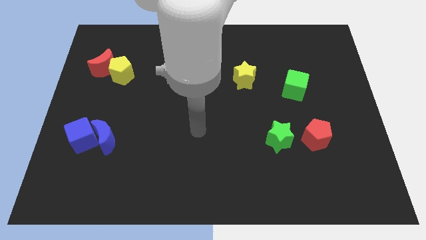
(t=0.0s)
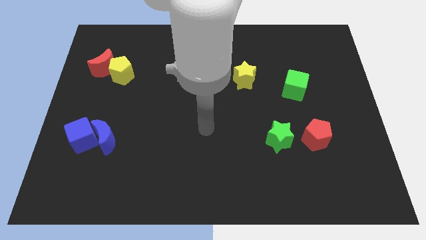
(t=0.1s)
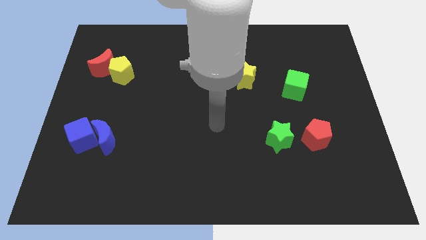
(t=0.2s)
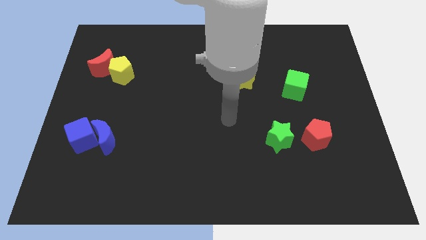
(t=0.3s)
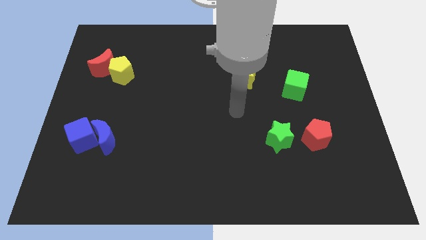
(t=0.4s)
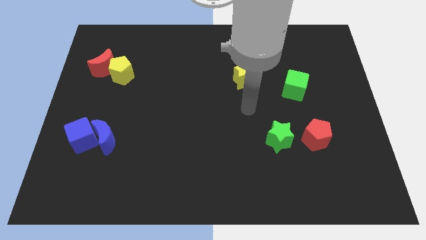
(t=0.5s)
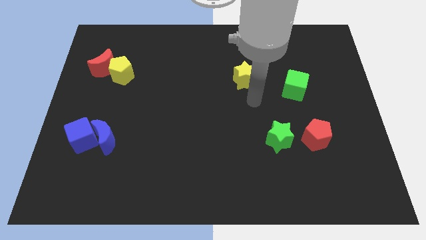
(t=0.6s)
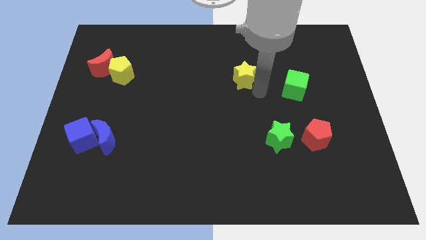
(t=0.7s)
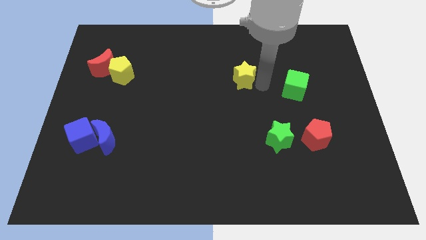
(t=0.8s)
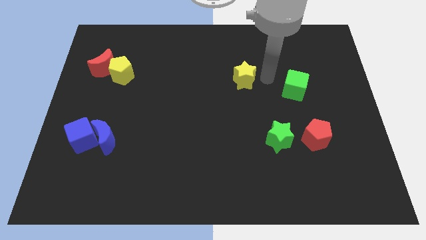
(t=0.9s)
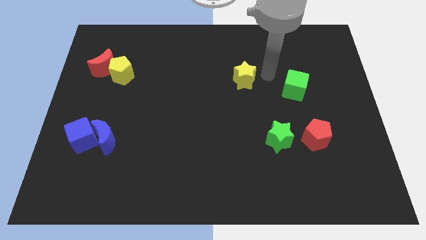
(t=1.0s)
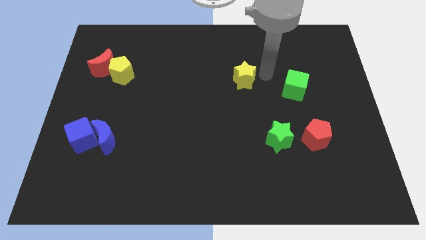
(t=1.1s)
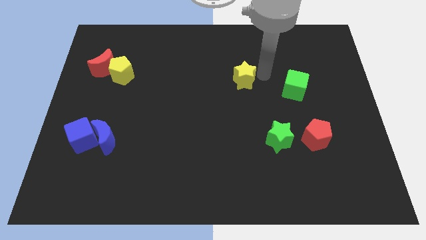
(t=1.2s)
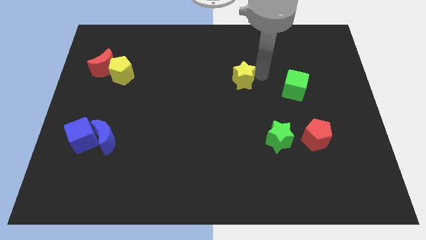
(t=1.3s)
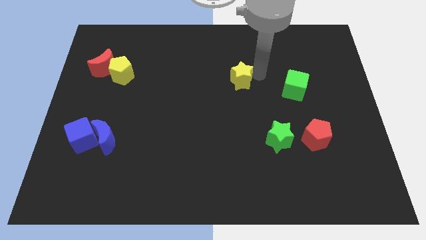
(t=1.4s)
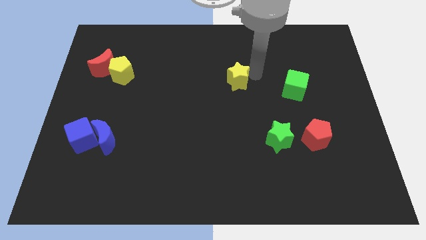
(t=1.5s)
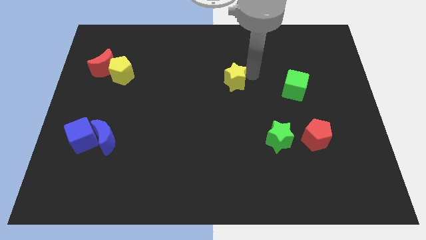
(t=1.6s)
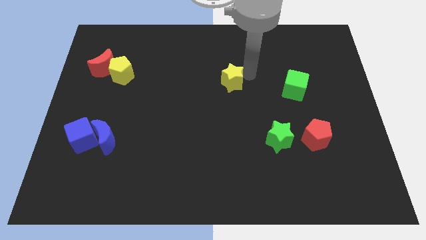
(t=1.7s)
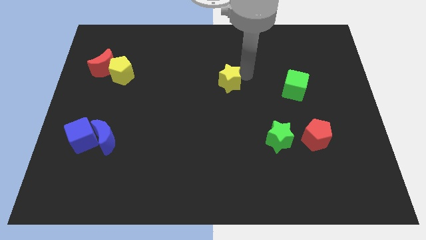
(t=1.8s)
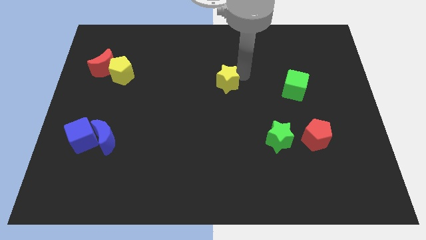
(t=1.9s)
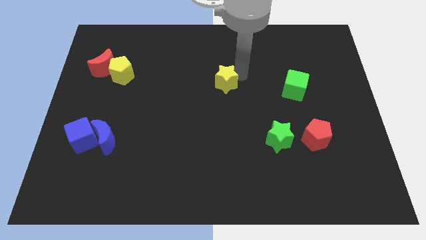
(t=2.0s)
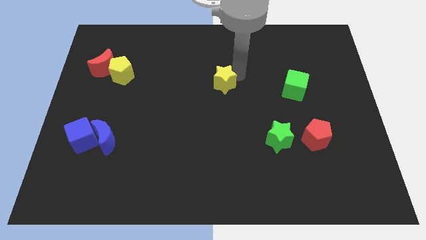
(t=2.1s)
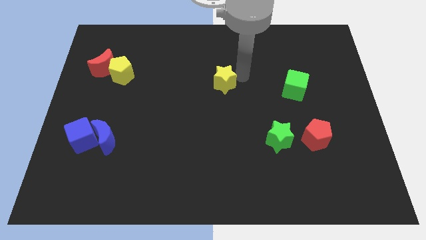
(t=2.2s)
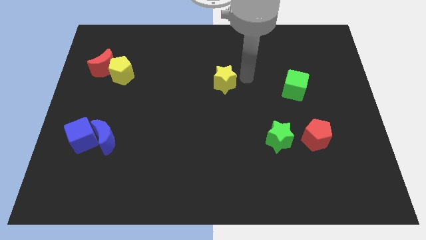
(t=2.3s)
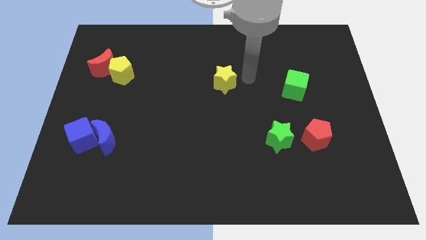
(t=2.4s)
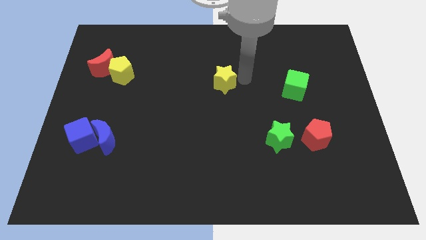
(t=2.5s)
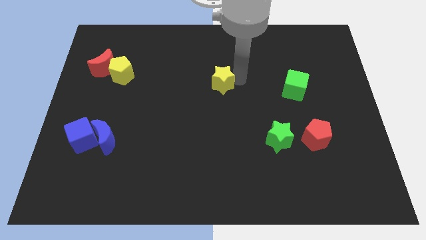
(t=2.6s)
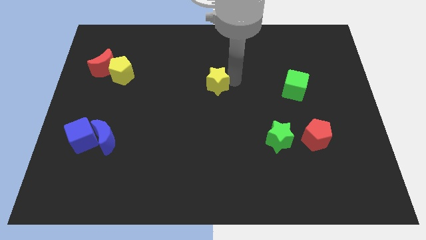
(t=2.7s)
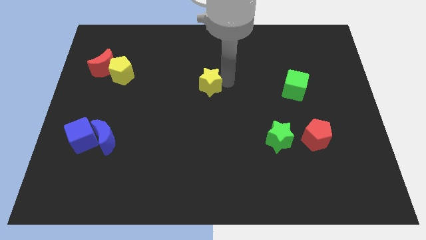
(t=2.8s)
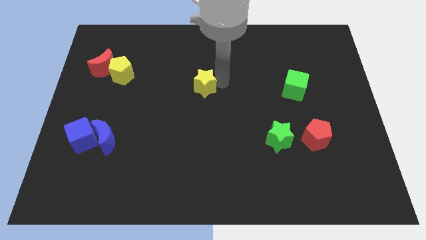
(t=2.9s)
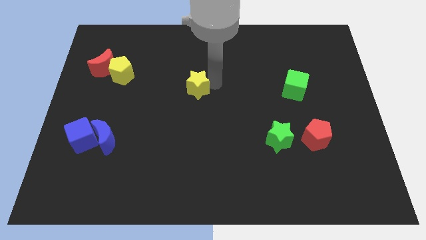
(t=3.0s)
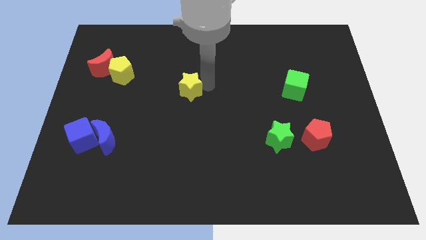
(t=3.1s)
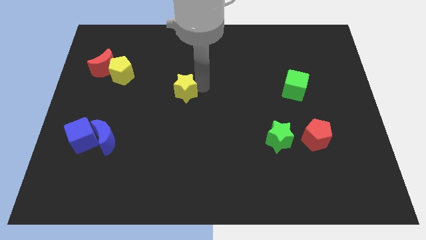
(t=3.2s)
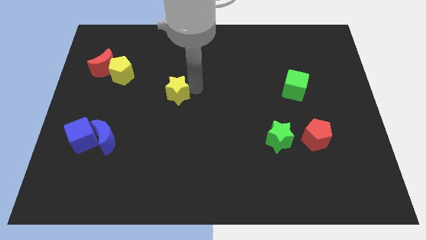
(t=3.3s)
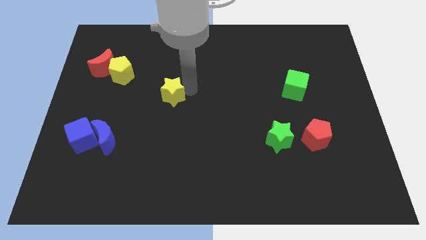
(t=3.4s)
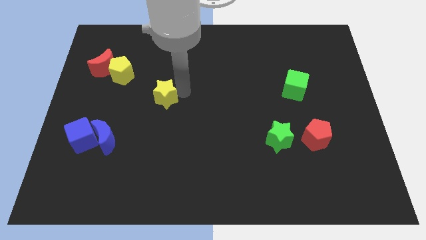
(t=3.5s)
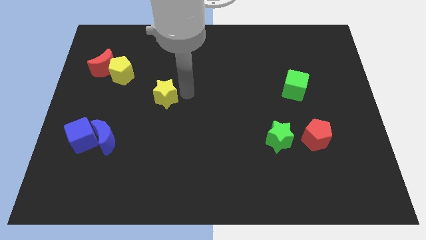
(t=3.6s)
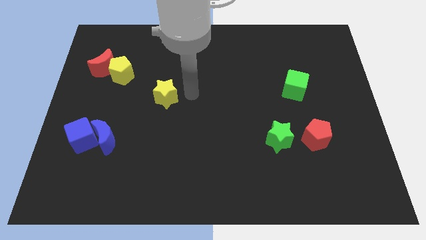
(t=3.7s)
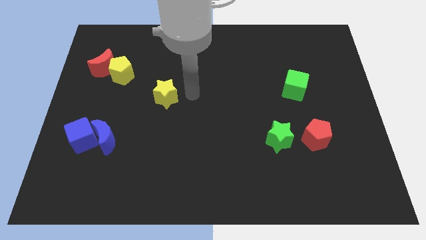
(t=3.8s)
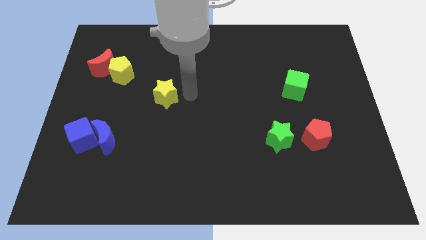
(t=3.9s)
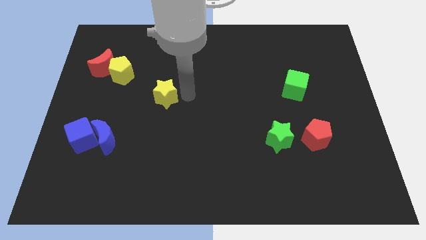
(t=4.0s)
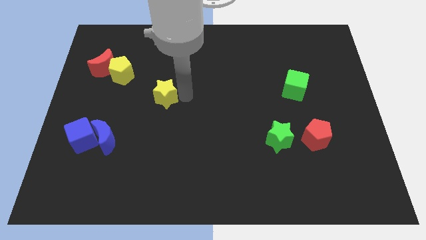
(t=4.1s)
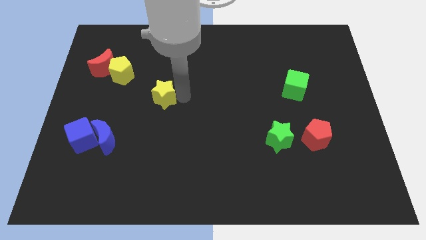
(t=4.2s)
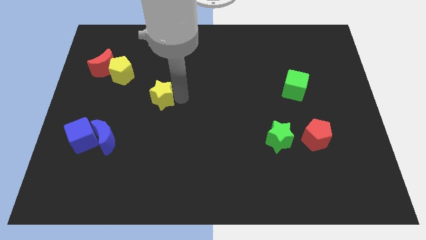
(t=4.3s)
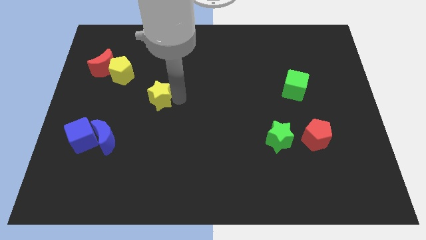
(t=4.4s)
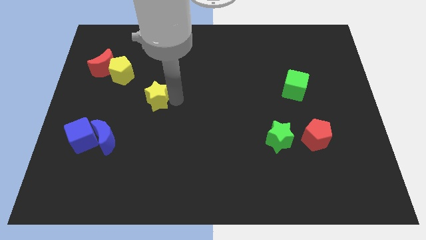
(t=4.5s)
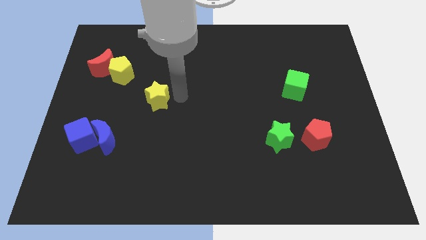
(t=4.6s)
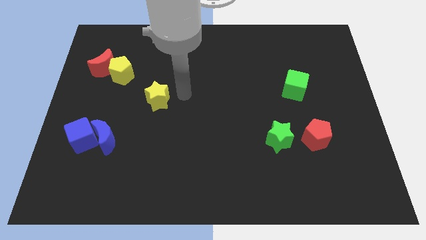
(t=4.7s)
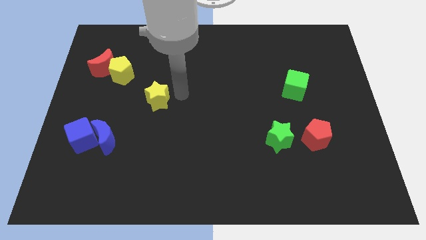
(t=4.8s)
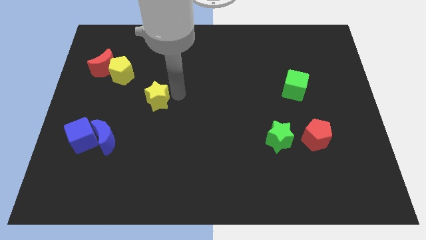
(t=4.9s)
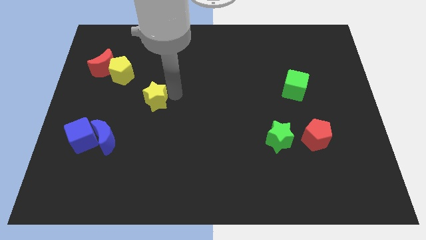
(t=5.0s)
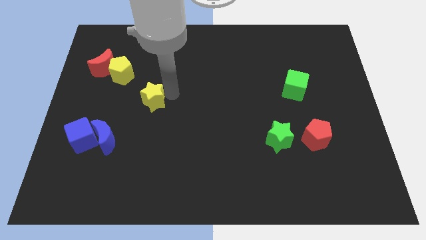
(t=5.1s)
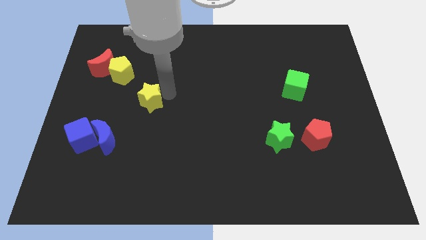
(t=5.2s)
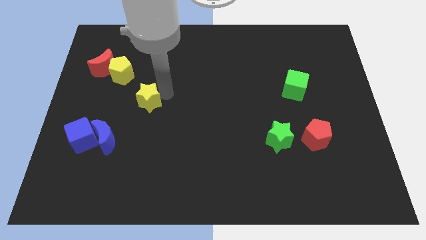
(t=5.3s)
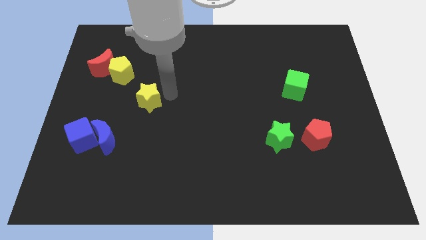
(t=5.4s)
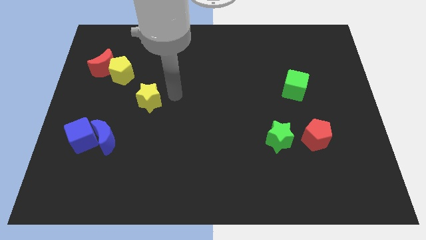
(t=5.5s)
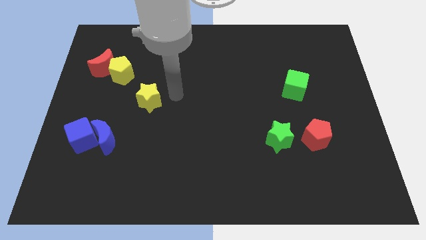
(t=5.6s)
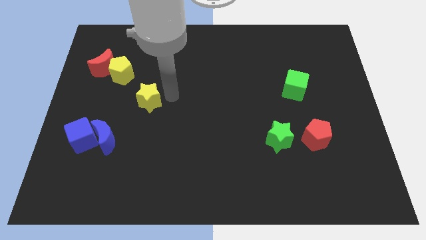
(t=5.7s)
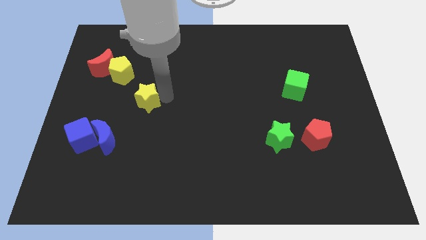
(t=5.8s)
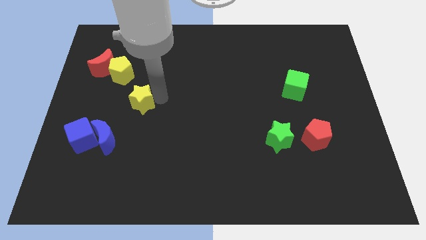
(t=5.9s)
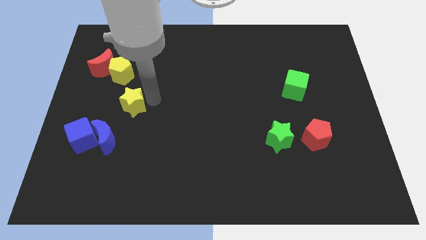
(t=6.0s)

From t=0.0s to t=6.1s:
slide the yellow star to the bottom side of the yellow pentagon

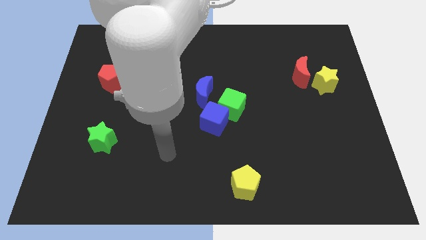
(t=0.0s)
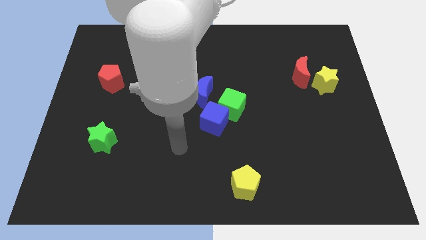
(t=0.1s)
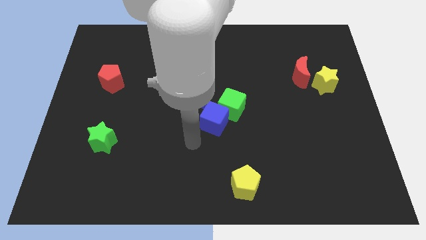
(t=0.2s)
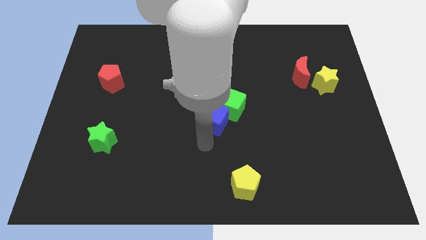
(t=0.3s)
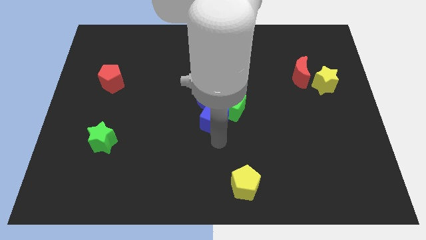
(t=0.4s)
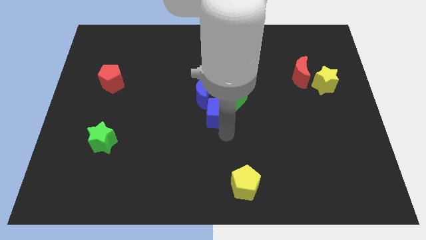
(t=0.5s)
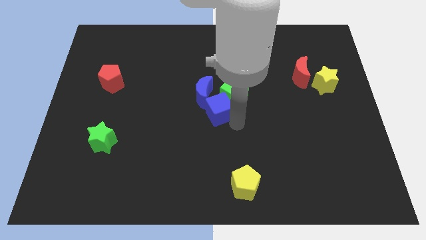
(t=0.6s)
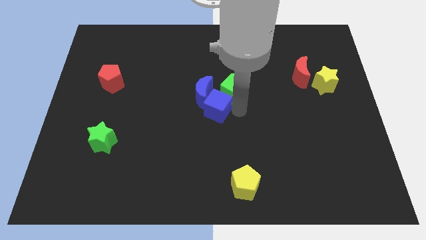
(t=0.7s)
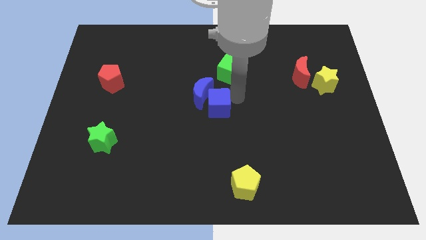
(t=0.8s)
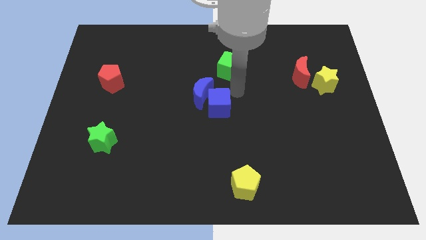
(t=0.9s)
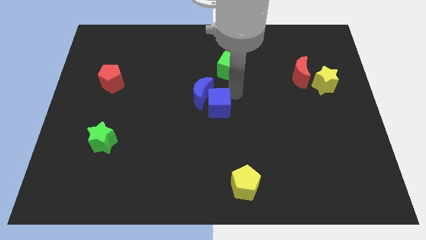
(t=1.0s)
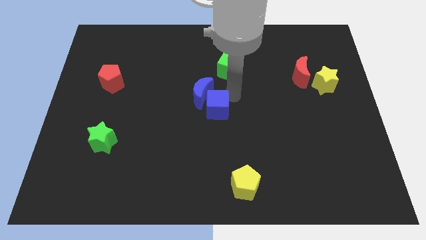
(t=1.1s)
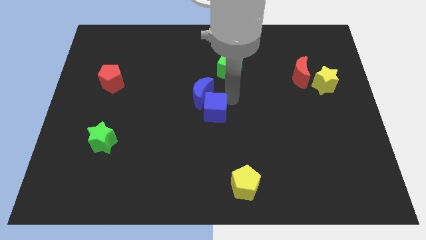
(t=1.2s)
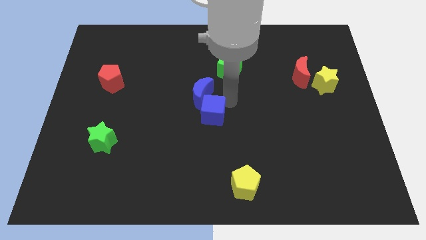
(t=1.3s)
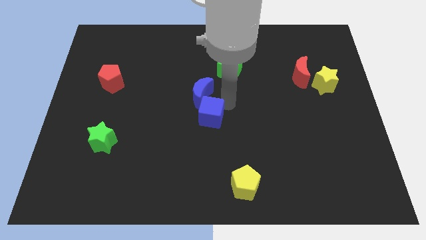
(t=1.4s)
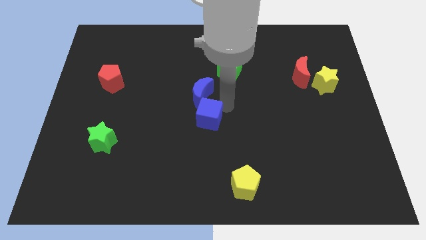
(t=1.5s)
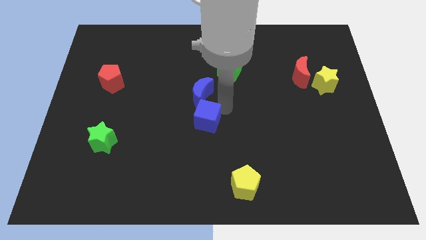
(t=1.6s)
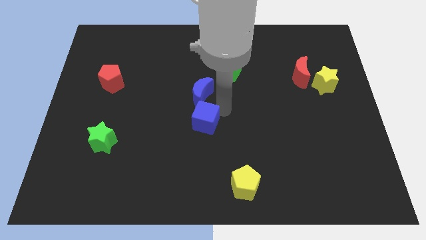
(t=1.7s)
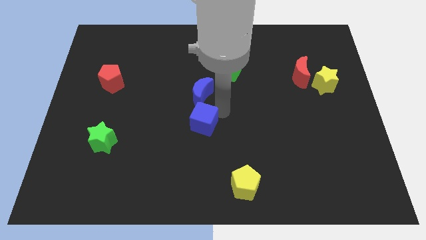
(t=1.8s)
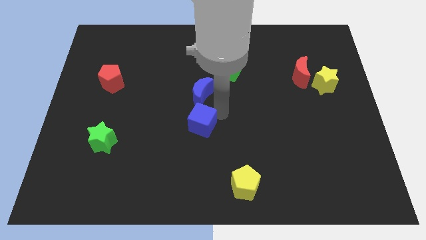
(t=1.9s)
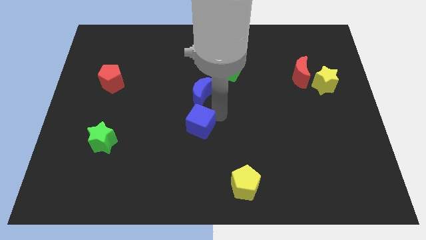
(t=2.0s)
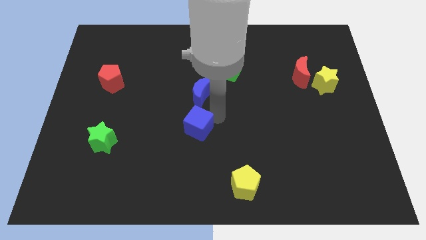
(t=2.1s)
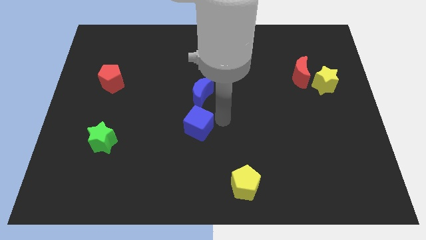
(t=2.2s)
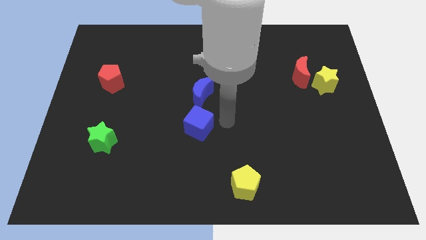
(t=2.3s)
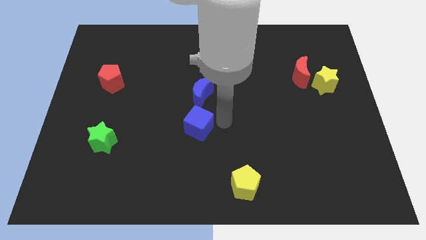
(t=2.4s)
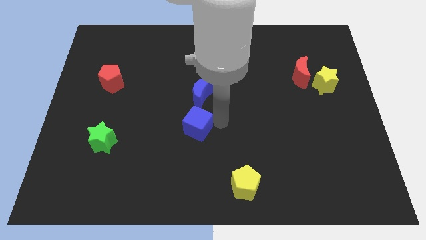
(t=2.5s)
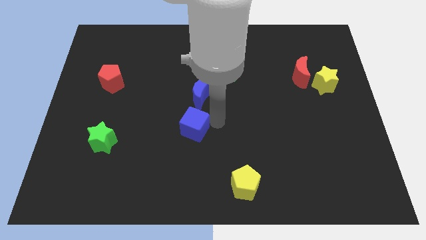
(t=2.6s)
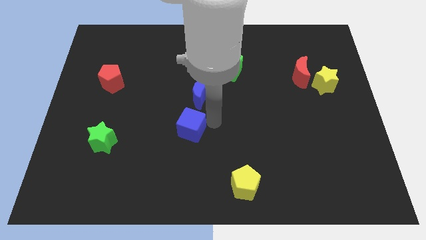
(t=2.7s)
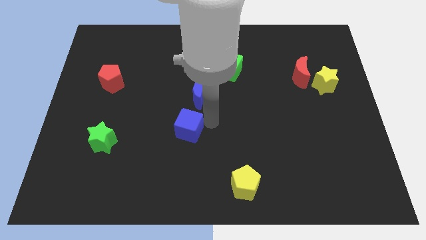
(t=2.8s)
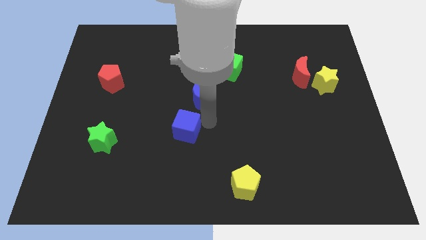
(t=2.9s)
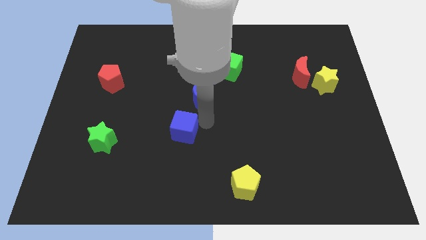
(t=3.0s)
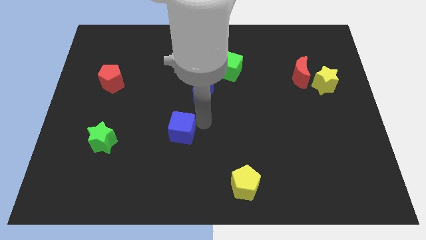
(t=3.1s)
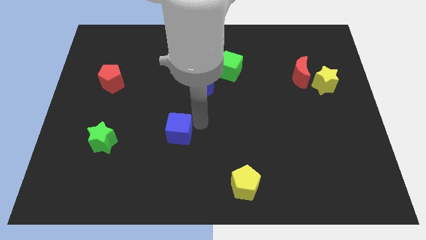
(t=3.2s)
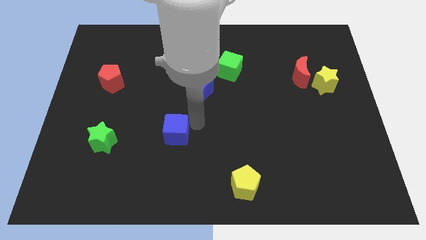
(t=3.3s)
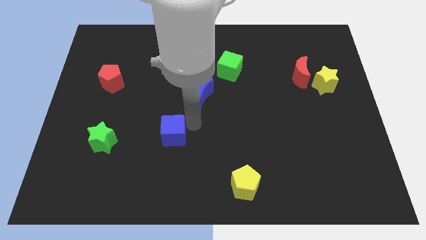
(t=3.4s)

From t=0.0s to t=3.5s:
move the blue cube right of the green star
